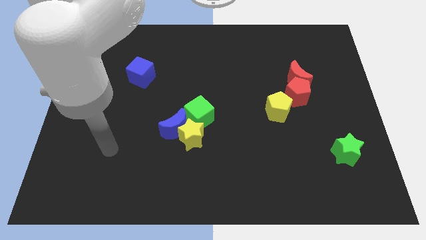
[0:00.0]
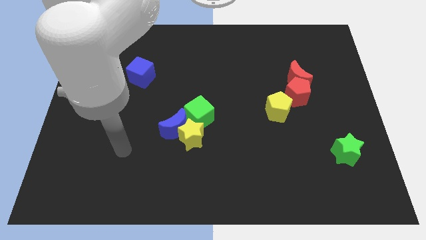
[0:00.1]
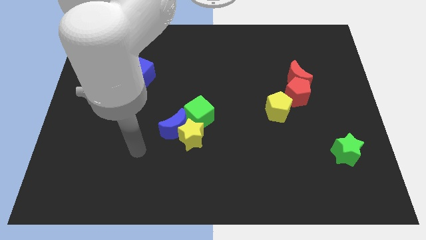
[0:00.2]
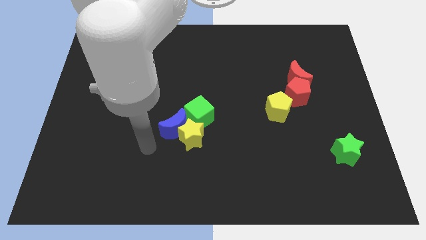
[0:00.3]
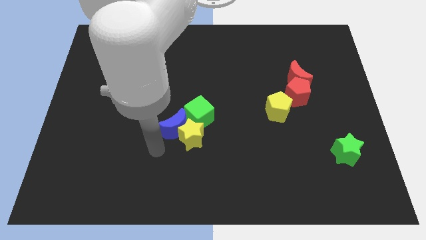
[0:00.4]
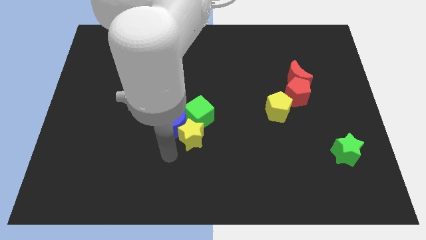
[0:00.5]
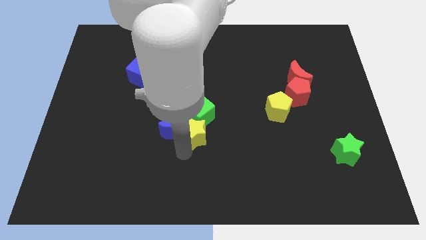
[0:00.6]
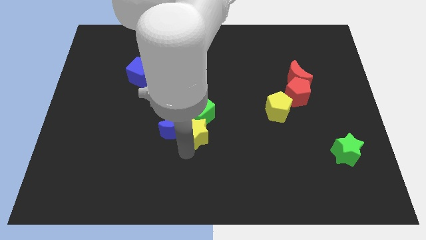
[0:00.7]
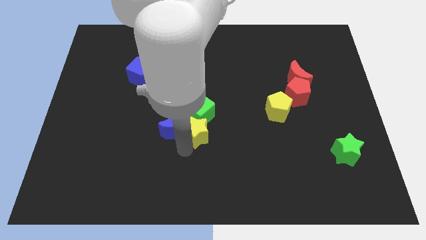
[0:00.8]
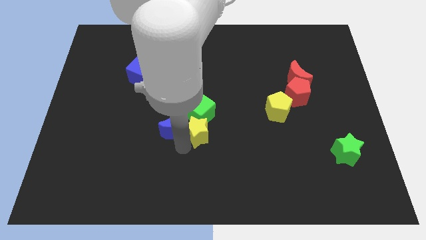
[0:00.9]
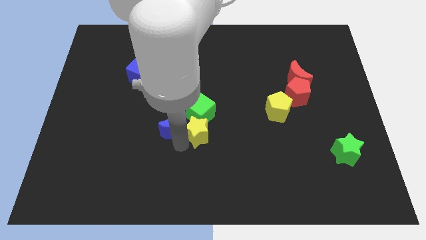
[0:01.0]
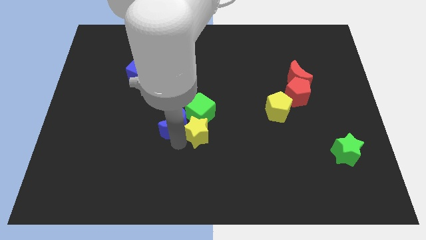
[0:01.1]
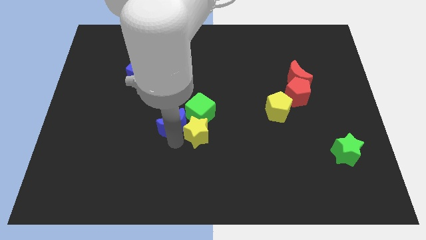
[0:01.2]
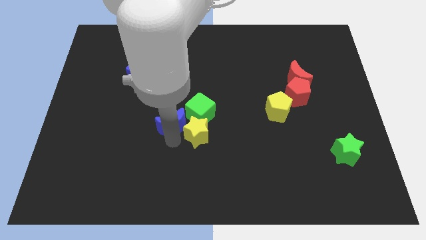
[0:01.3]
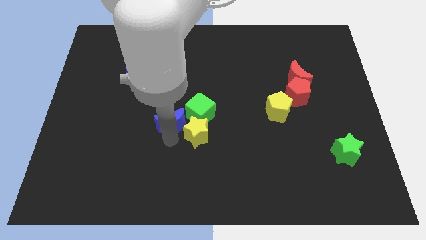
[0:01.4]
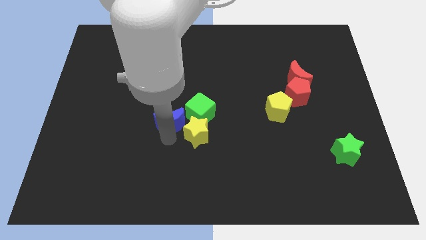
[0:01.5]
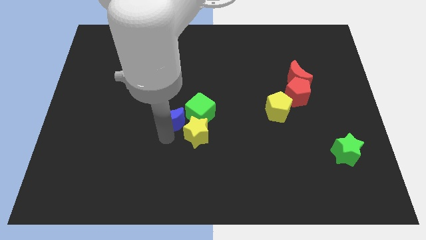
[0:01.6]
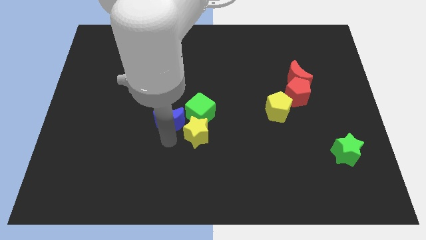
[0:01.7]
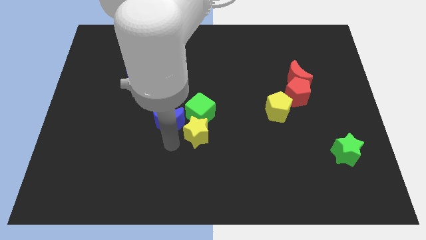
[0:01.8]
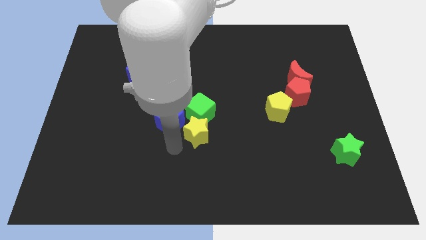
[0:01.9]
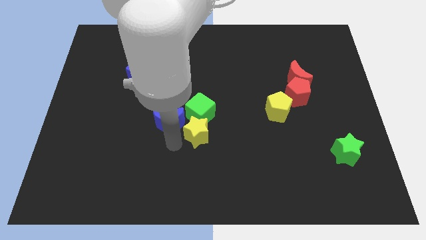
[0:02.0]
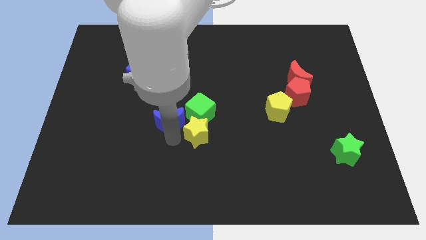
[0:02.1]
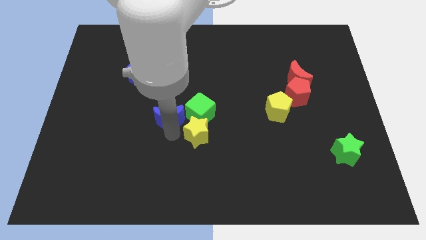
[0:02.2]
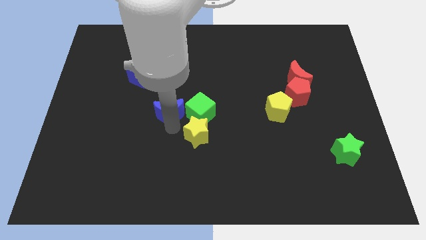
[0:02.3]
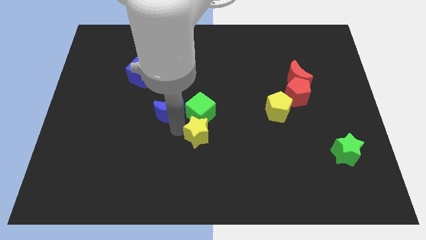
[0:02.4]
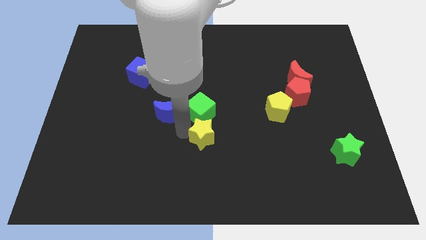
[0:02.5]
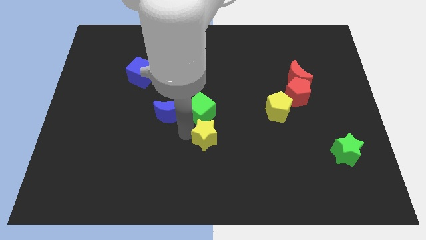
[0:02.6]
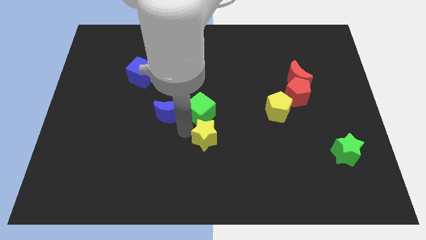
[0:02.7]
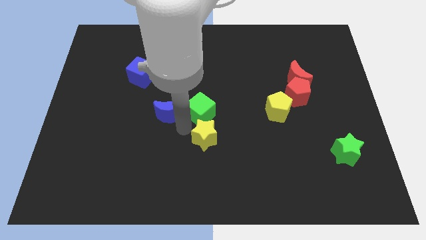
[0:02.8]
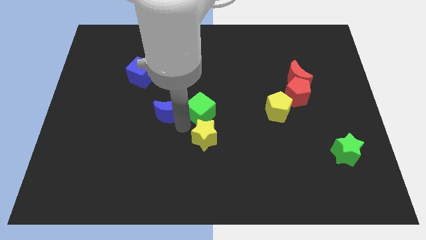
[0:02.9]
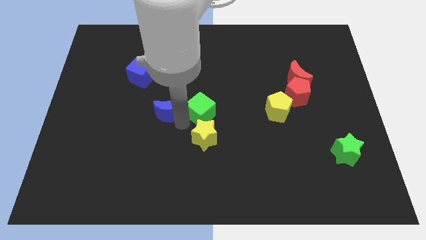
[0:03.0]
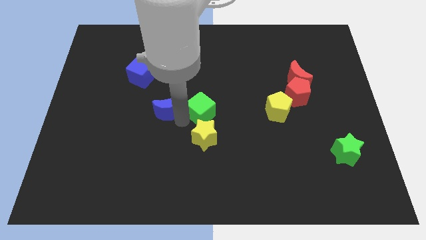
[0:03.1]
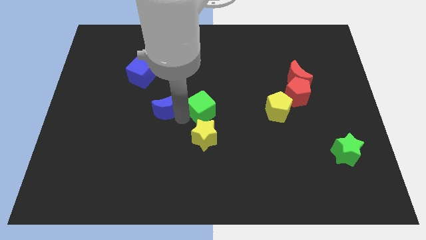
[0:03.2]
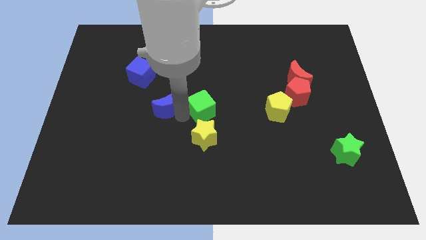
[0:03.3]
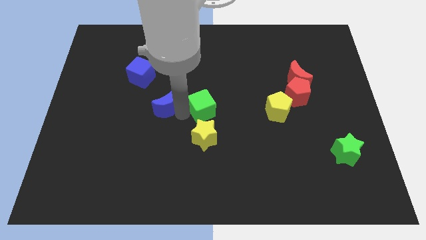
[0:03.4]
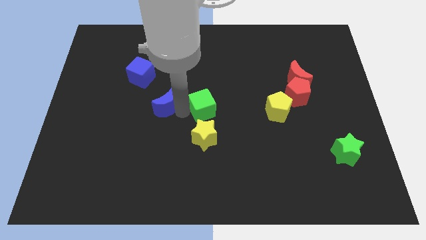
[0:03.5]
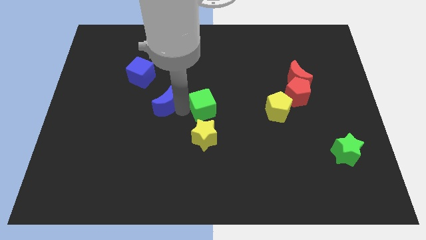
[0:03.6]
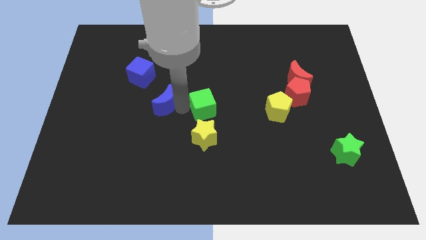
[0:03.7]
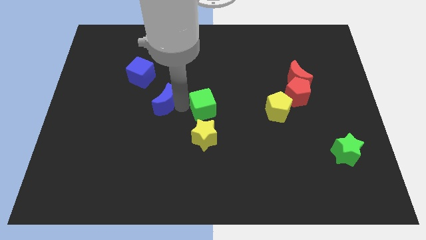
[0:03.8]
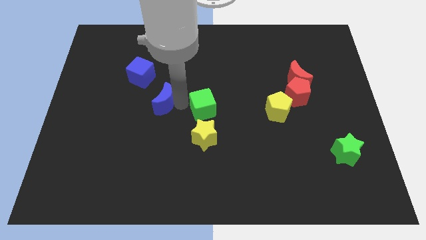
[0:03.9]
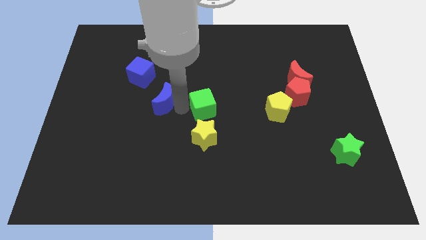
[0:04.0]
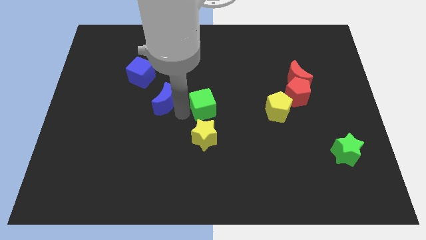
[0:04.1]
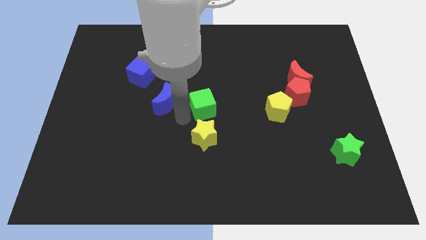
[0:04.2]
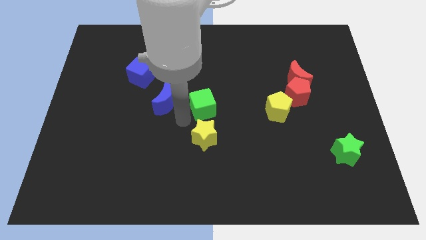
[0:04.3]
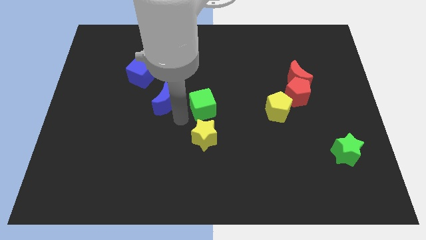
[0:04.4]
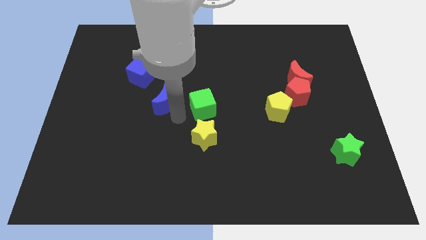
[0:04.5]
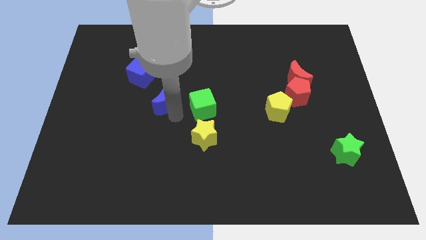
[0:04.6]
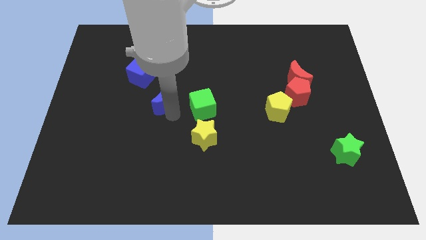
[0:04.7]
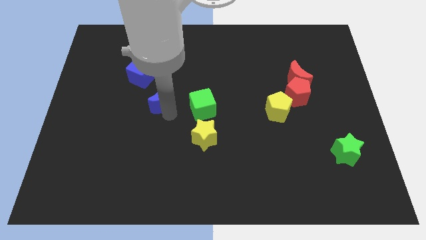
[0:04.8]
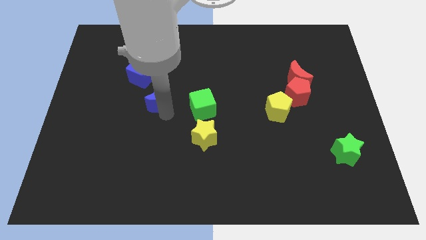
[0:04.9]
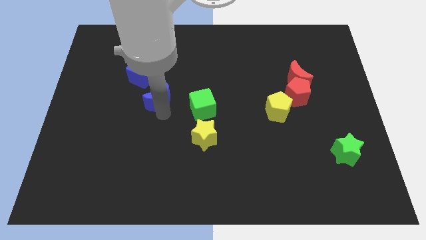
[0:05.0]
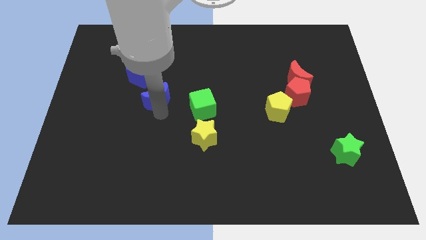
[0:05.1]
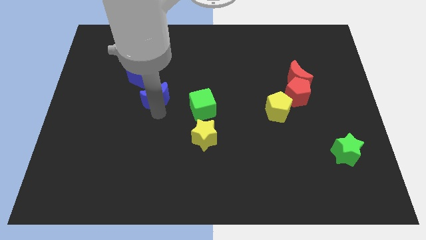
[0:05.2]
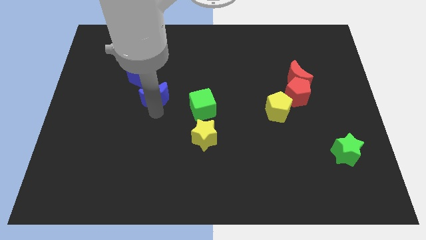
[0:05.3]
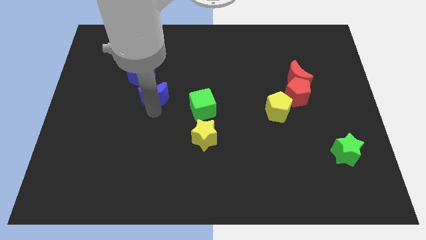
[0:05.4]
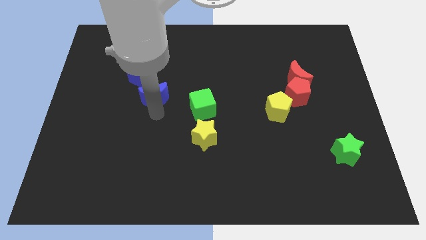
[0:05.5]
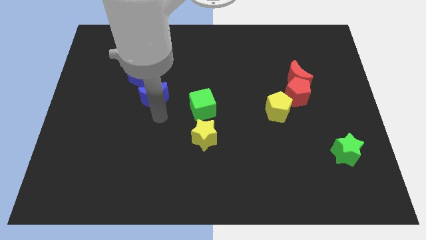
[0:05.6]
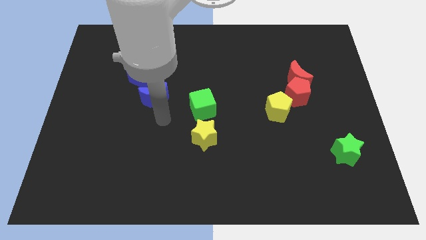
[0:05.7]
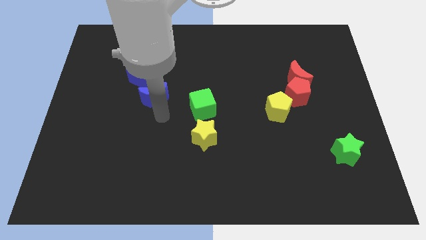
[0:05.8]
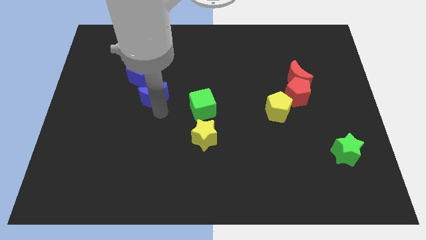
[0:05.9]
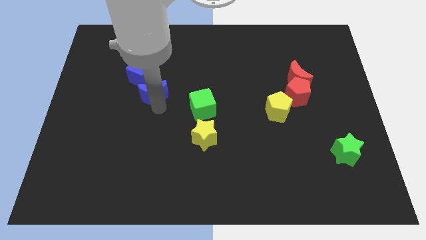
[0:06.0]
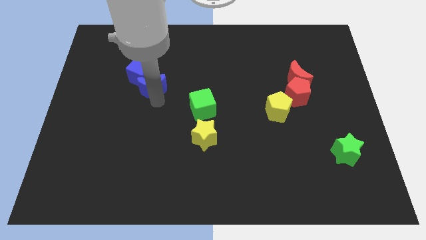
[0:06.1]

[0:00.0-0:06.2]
slide the blue moon next to the blue cube

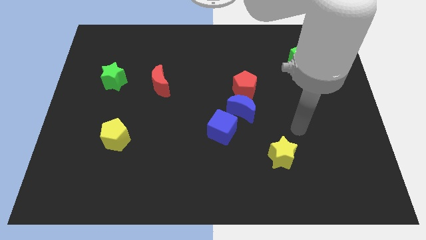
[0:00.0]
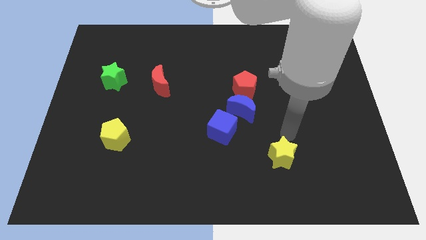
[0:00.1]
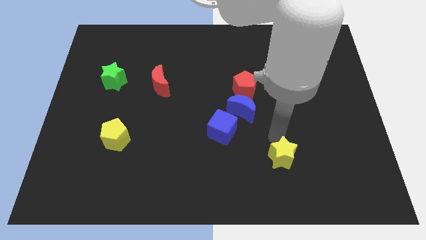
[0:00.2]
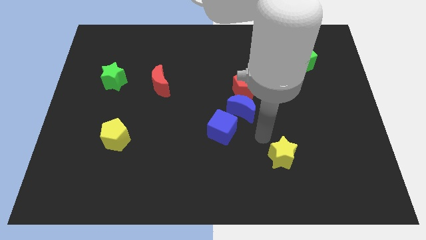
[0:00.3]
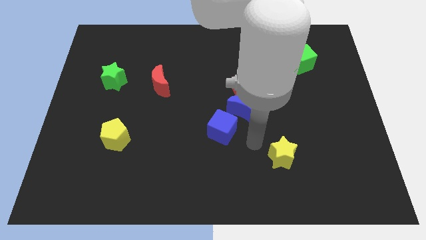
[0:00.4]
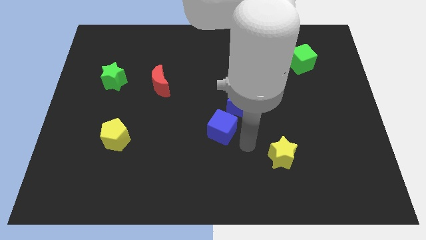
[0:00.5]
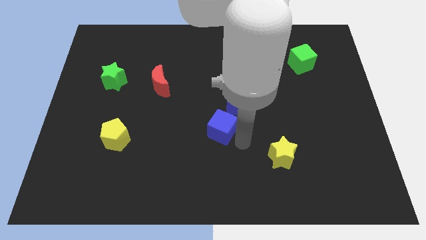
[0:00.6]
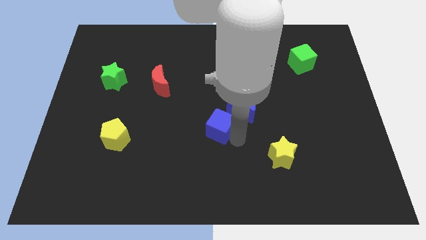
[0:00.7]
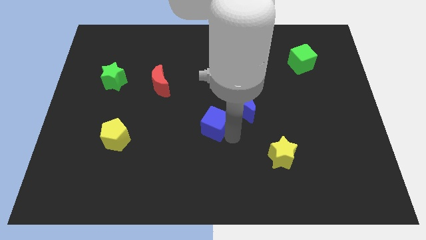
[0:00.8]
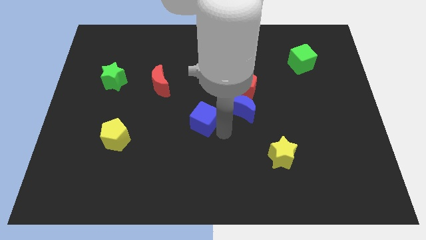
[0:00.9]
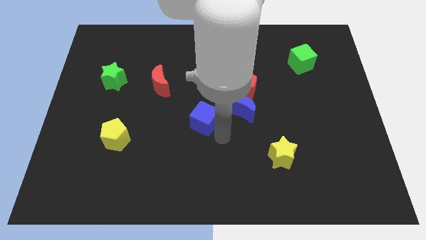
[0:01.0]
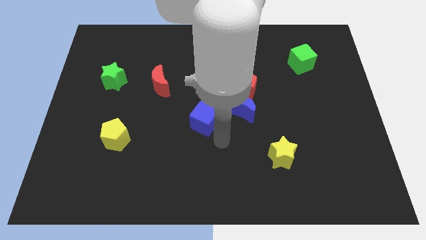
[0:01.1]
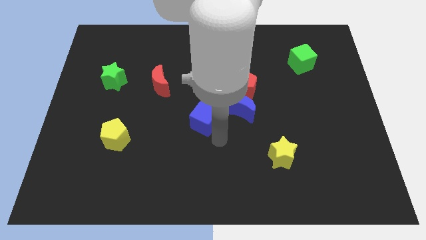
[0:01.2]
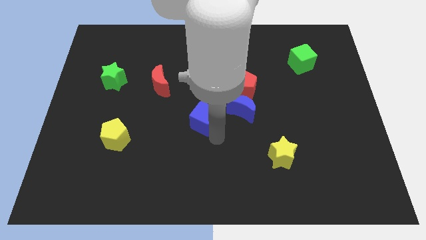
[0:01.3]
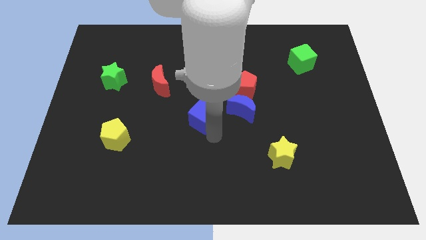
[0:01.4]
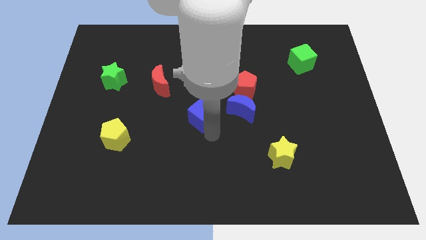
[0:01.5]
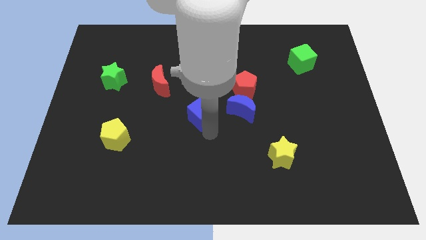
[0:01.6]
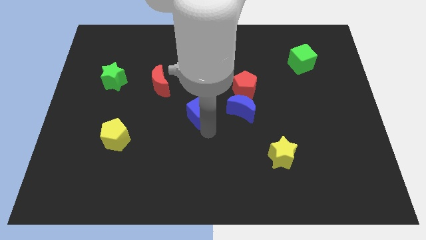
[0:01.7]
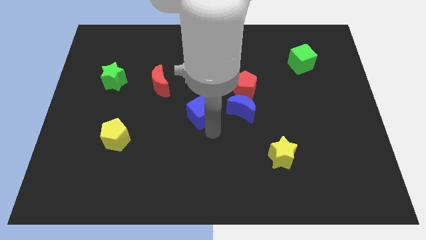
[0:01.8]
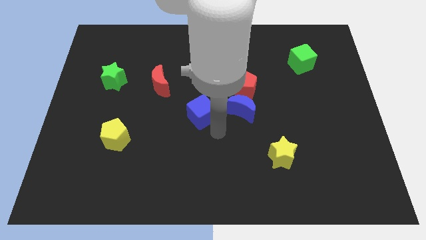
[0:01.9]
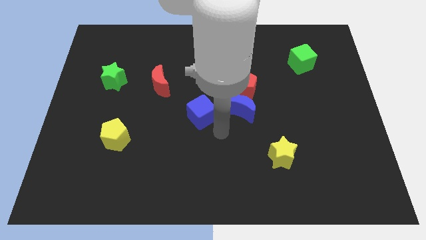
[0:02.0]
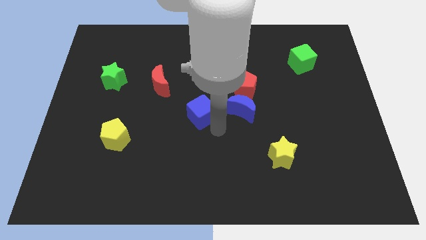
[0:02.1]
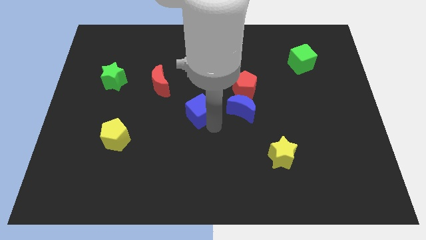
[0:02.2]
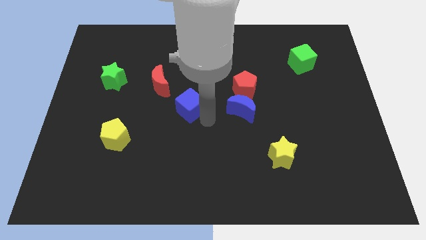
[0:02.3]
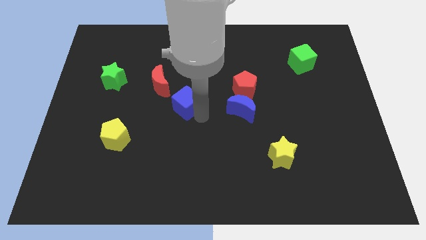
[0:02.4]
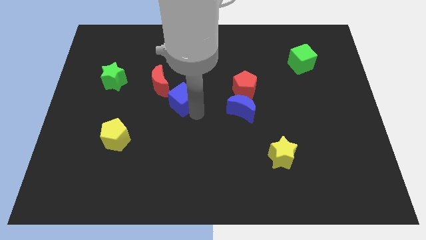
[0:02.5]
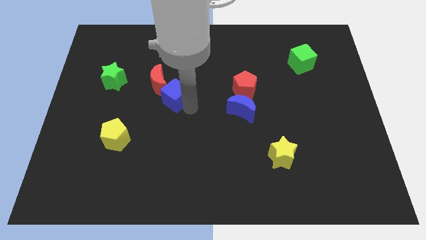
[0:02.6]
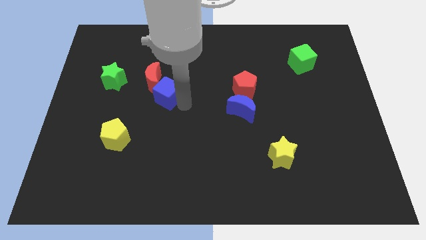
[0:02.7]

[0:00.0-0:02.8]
push the blue cube close to the red moon
